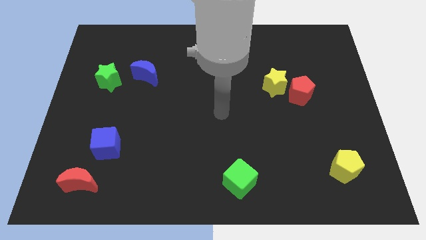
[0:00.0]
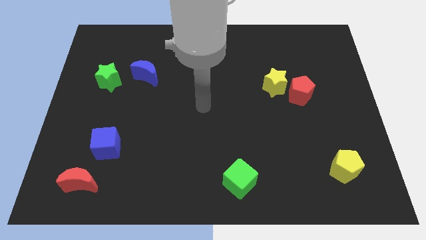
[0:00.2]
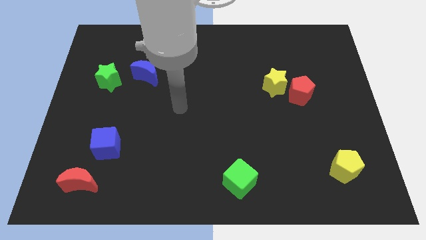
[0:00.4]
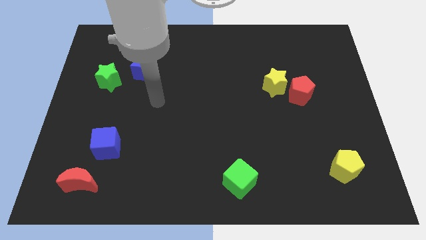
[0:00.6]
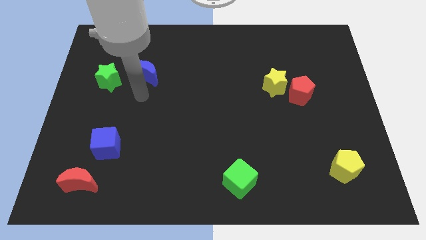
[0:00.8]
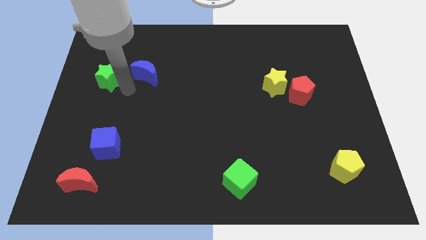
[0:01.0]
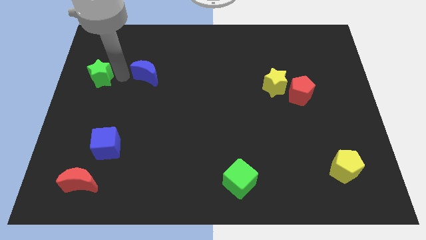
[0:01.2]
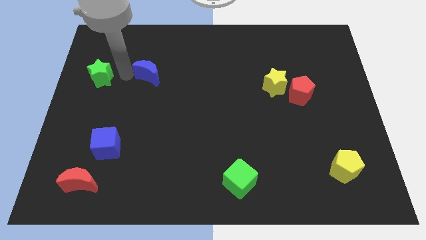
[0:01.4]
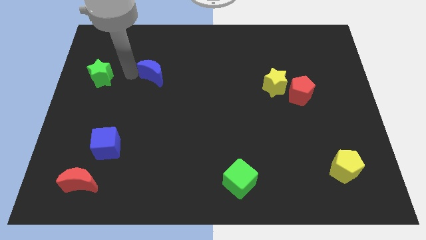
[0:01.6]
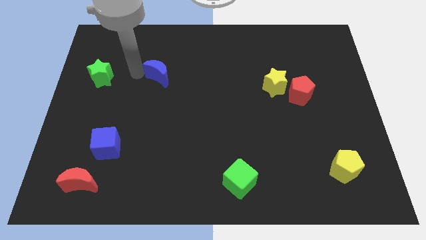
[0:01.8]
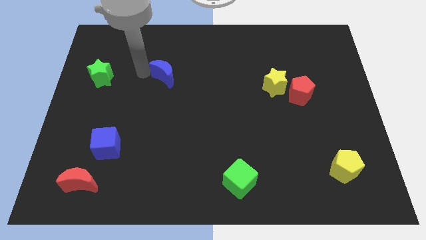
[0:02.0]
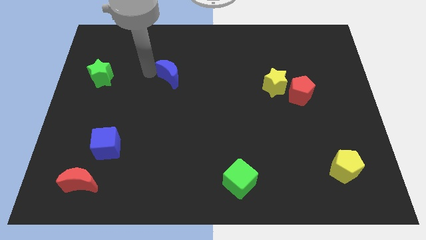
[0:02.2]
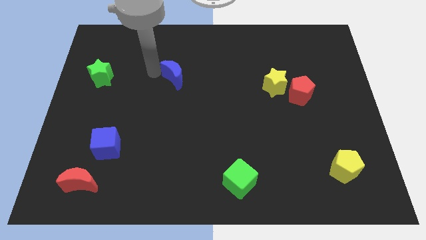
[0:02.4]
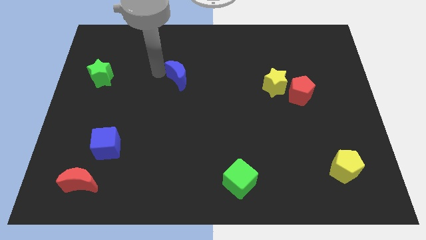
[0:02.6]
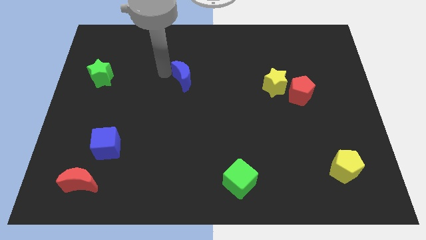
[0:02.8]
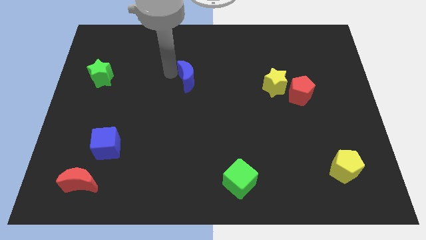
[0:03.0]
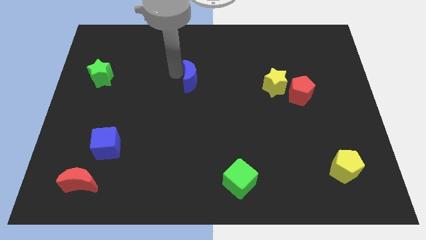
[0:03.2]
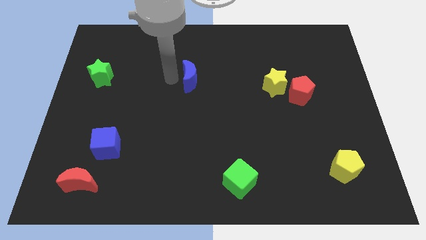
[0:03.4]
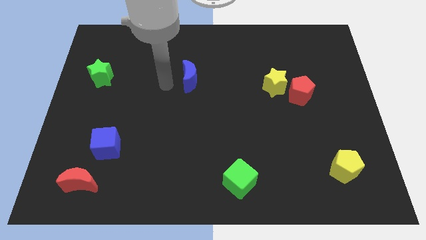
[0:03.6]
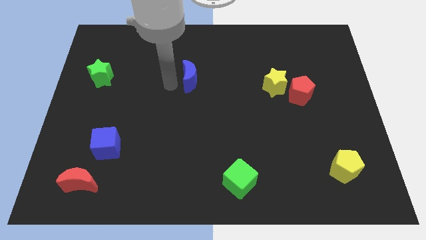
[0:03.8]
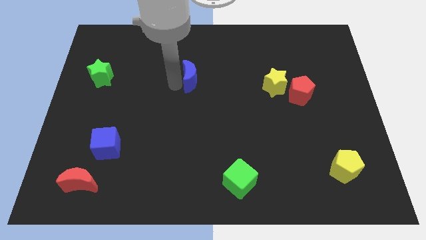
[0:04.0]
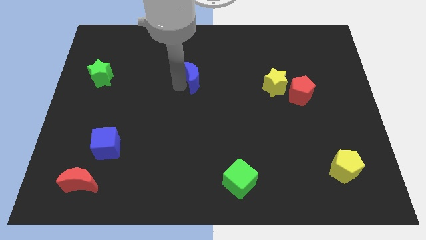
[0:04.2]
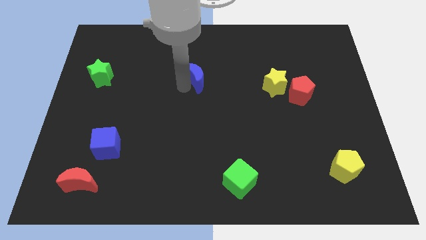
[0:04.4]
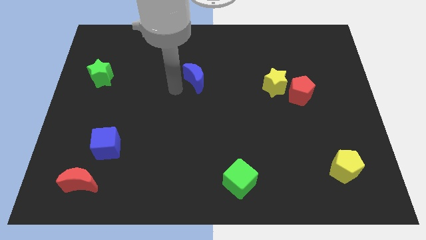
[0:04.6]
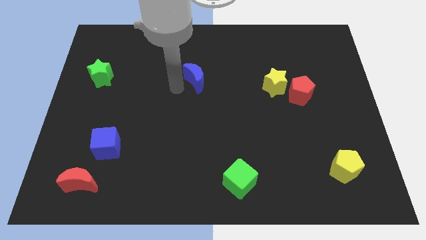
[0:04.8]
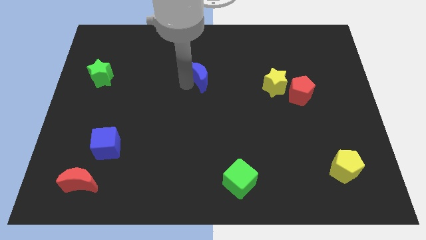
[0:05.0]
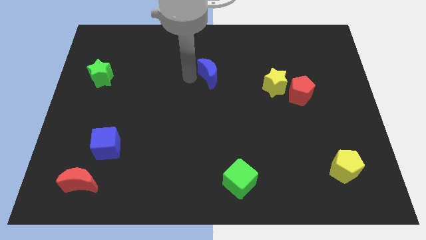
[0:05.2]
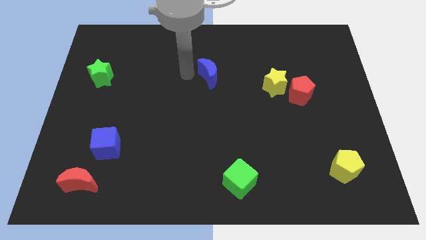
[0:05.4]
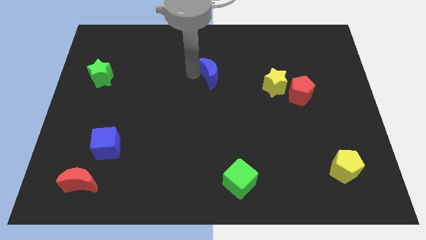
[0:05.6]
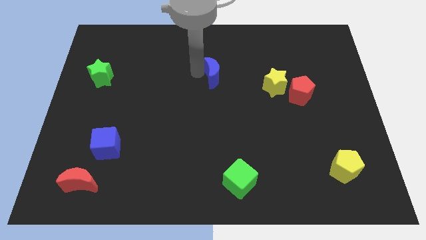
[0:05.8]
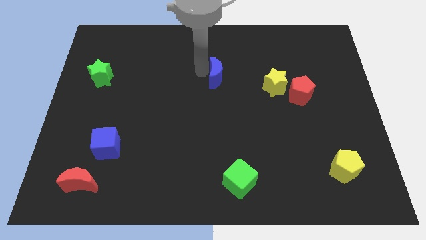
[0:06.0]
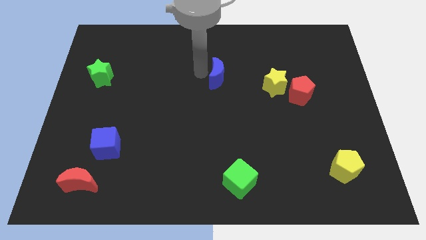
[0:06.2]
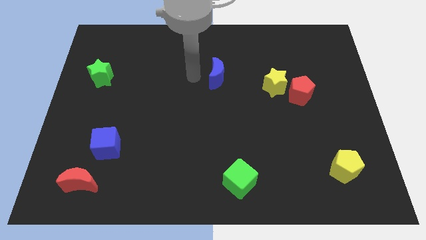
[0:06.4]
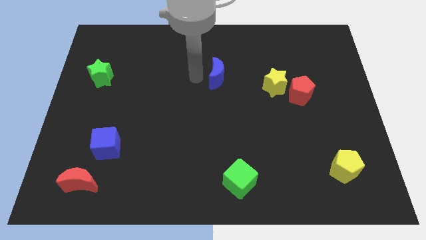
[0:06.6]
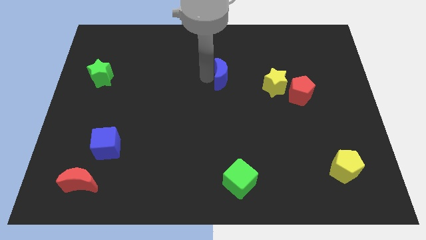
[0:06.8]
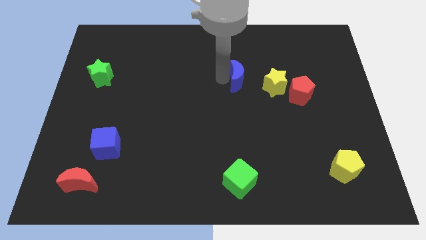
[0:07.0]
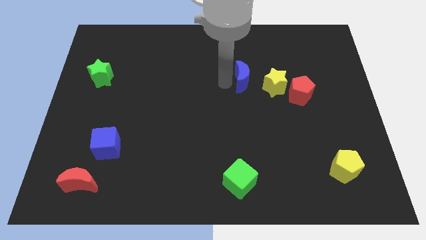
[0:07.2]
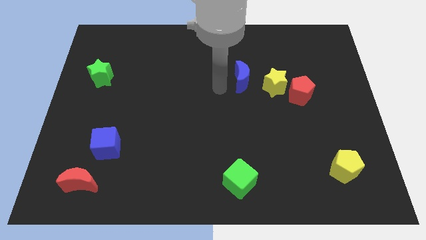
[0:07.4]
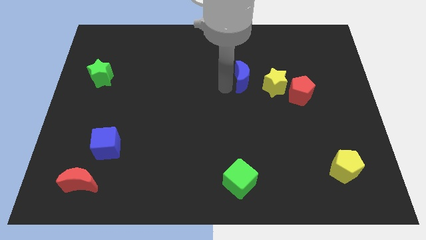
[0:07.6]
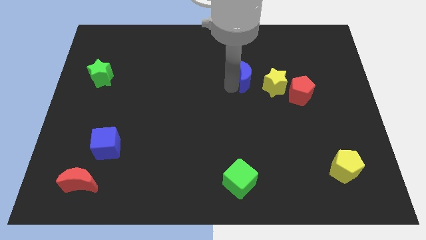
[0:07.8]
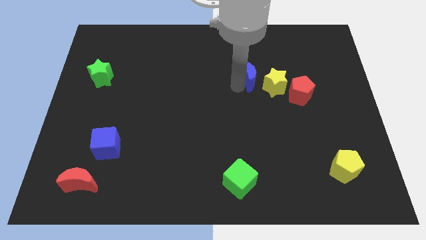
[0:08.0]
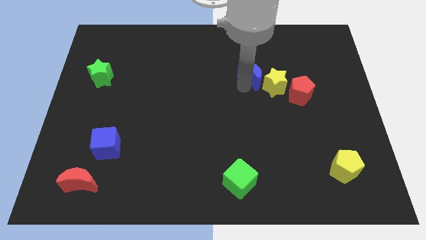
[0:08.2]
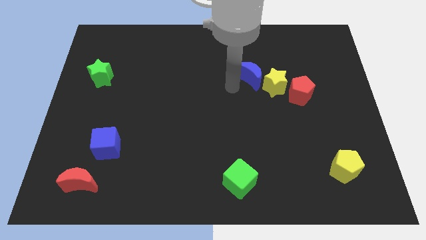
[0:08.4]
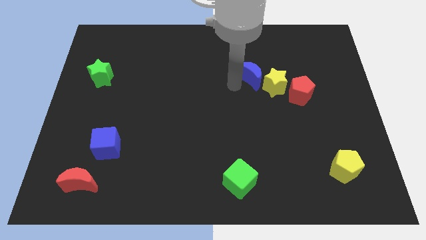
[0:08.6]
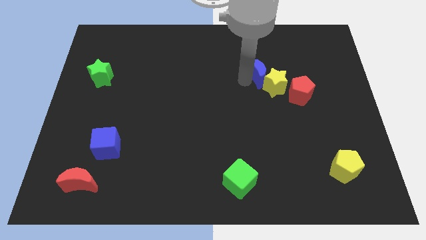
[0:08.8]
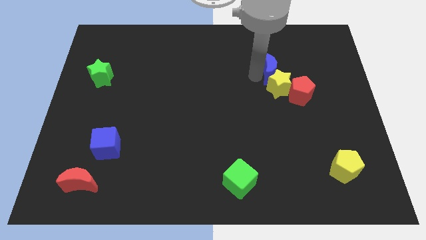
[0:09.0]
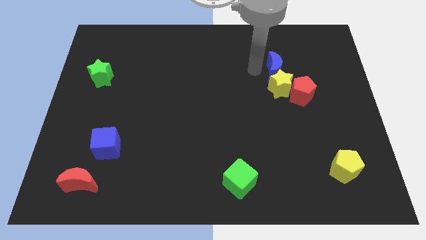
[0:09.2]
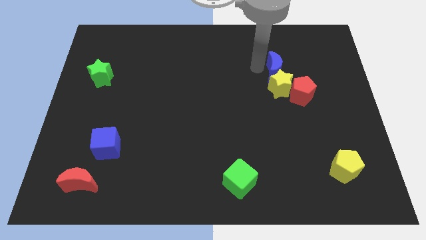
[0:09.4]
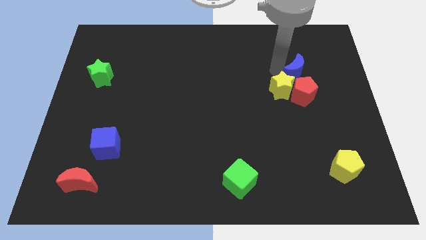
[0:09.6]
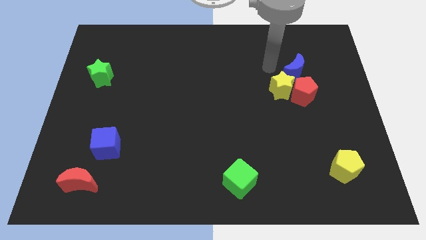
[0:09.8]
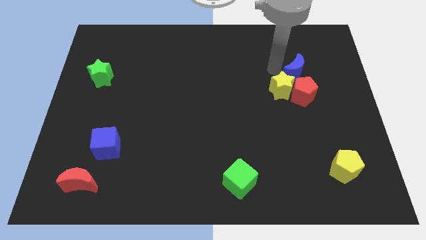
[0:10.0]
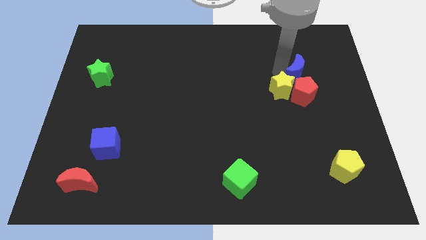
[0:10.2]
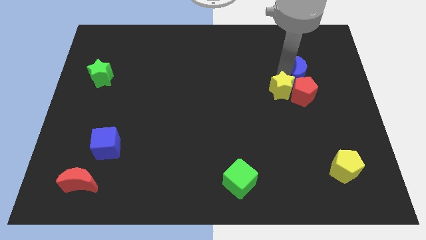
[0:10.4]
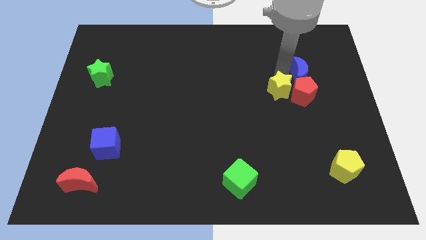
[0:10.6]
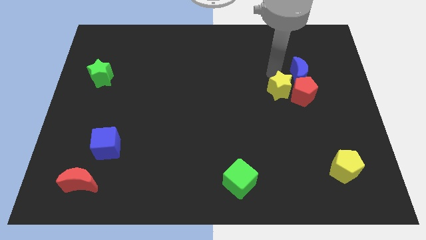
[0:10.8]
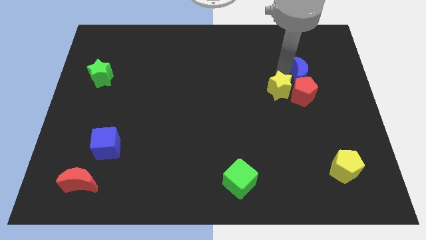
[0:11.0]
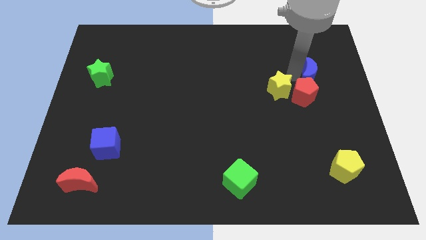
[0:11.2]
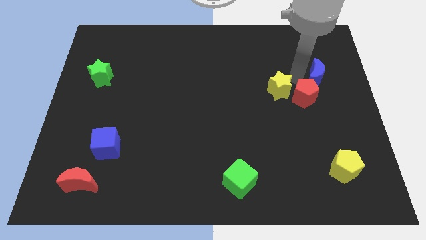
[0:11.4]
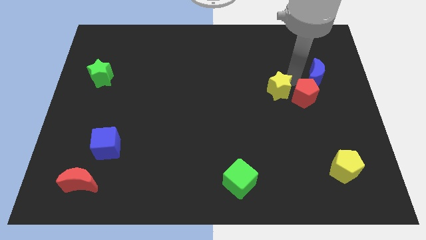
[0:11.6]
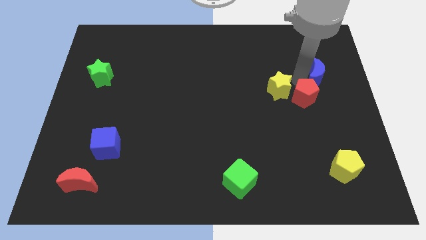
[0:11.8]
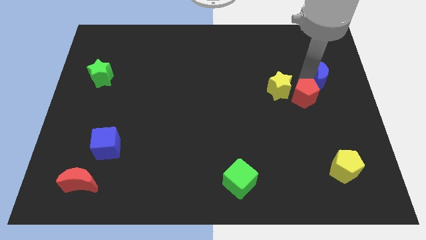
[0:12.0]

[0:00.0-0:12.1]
slide the blue moon to the right side of the board
